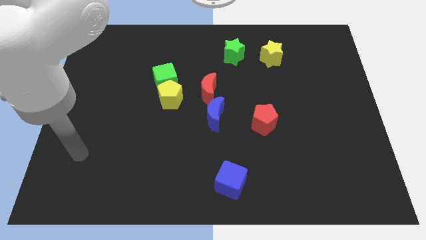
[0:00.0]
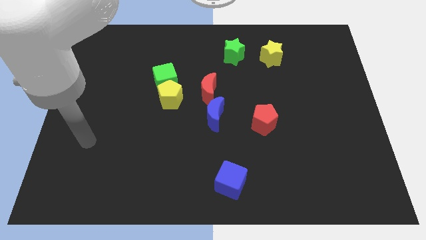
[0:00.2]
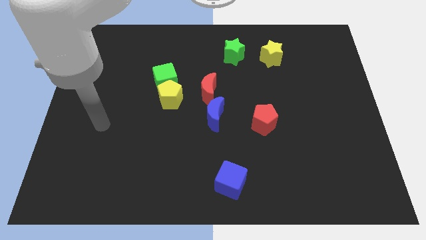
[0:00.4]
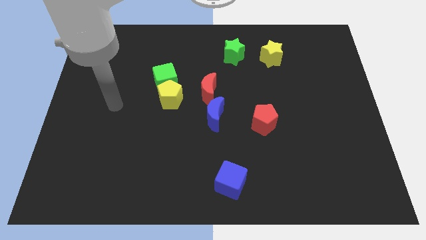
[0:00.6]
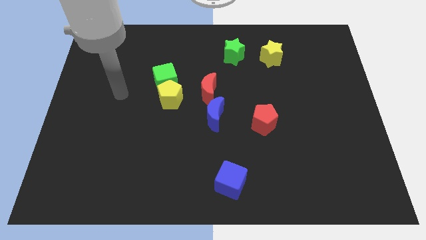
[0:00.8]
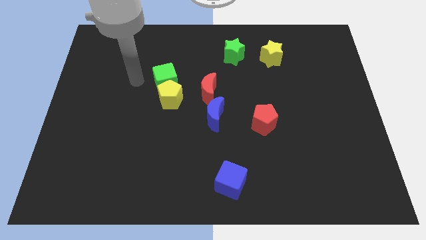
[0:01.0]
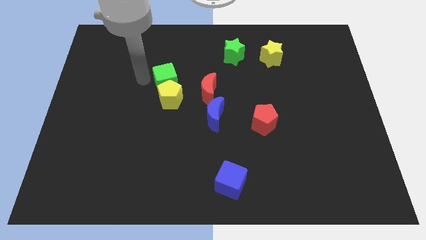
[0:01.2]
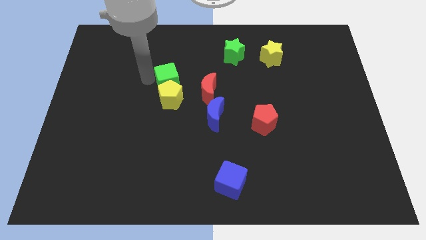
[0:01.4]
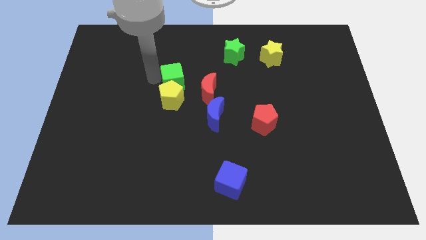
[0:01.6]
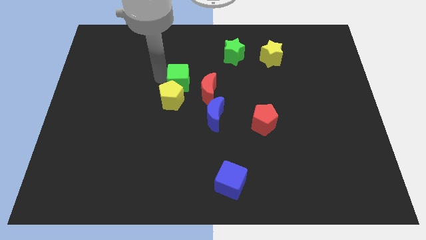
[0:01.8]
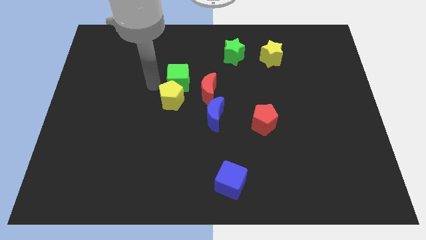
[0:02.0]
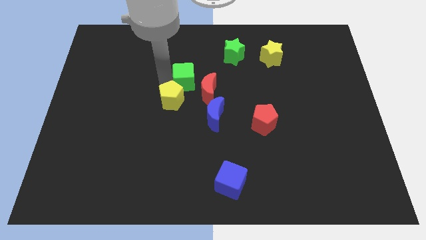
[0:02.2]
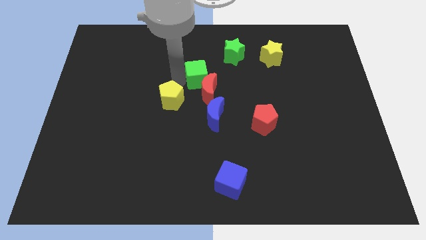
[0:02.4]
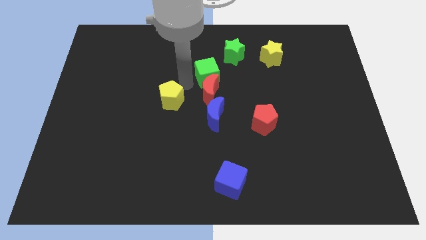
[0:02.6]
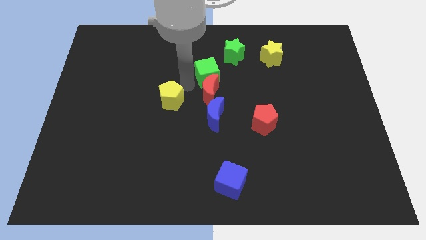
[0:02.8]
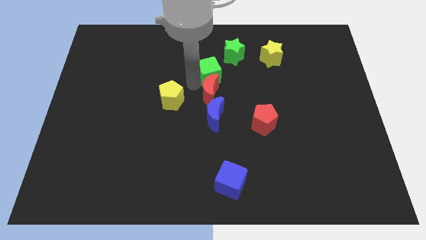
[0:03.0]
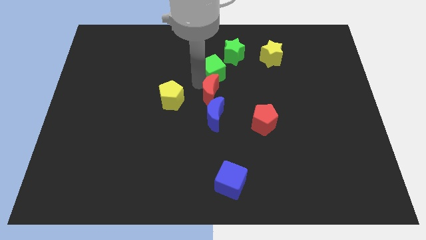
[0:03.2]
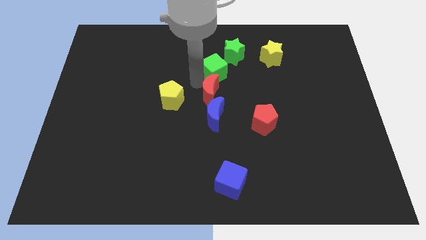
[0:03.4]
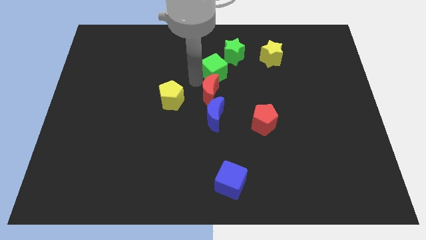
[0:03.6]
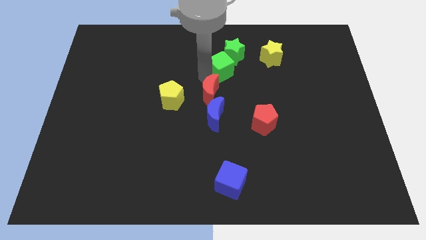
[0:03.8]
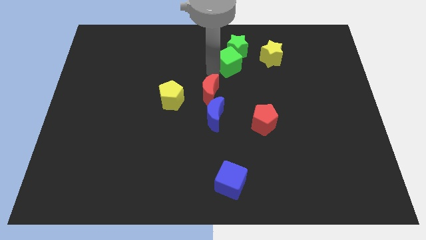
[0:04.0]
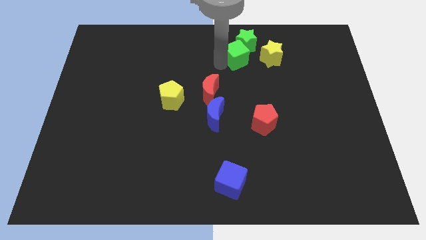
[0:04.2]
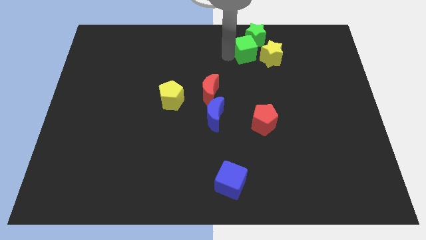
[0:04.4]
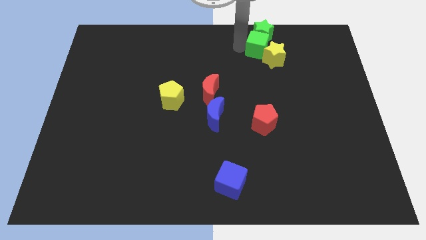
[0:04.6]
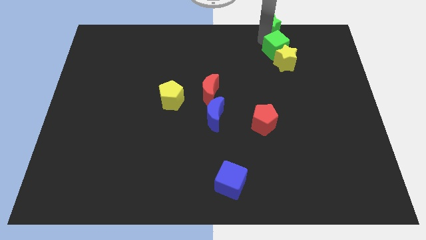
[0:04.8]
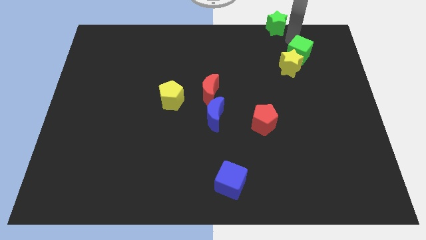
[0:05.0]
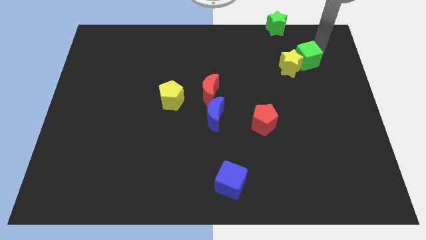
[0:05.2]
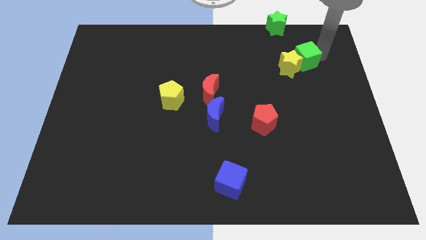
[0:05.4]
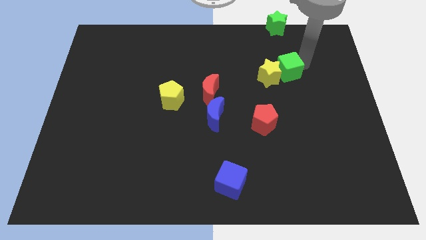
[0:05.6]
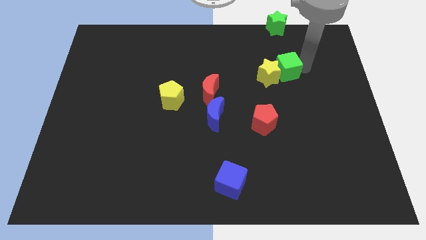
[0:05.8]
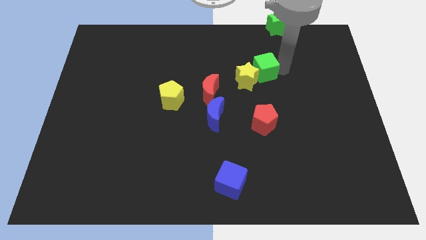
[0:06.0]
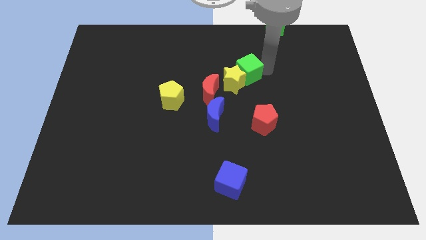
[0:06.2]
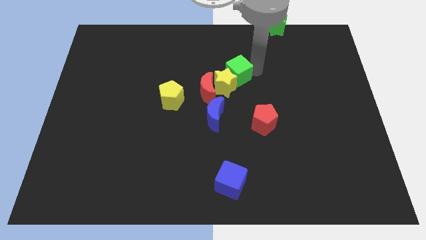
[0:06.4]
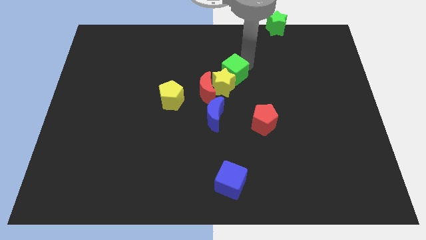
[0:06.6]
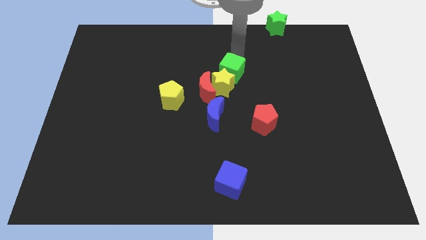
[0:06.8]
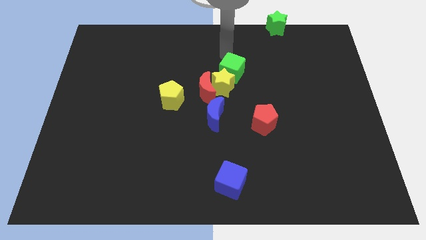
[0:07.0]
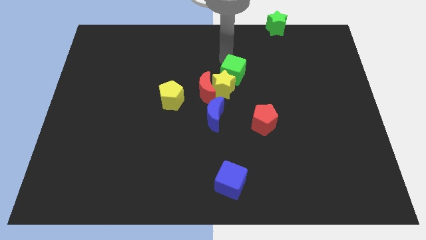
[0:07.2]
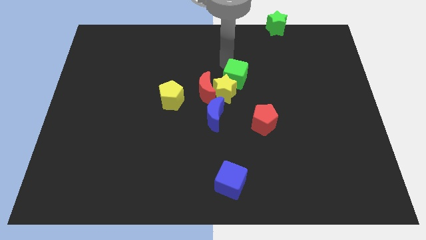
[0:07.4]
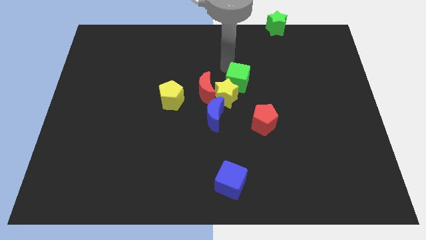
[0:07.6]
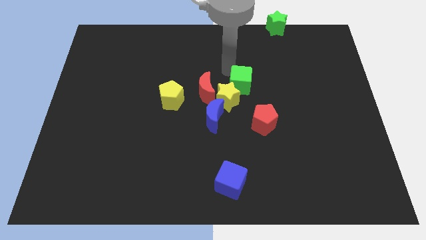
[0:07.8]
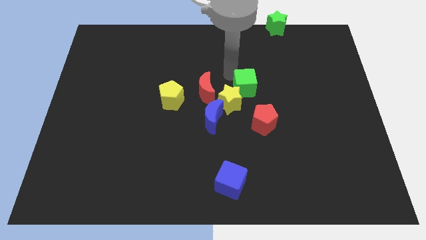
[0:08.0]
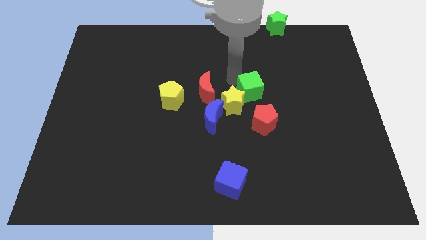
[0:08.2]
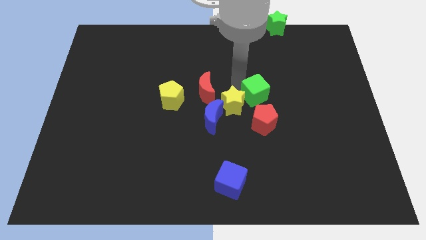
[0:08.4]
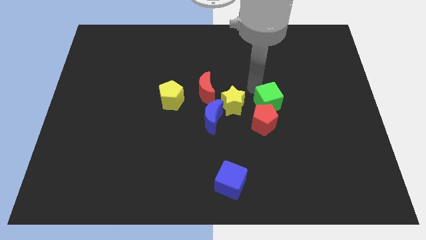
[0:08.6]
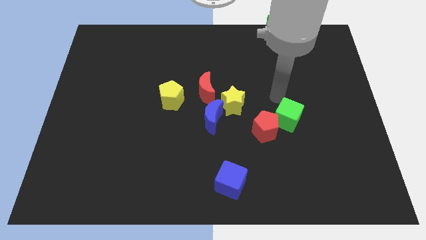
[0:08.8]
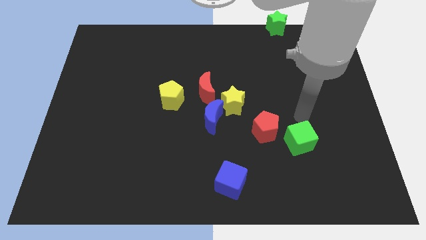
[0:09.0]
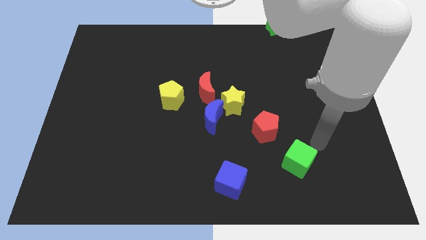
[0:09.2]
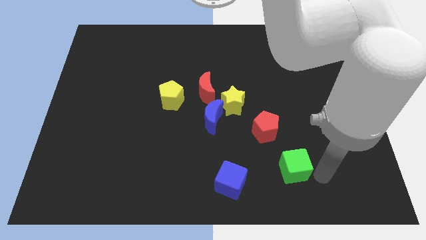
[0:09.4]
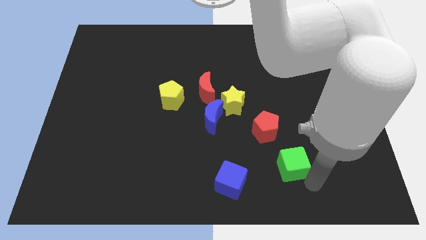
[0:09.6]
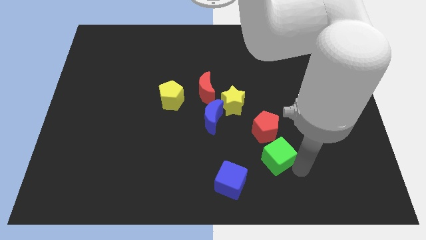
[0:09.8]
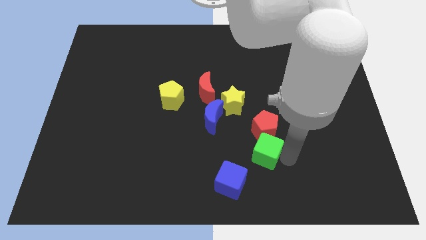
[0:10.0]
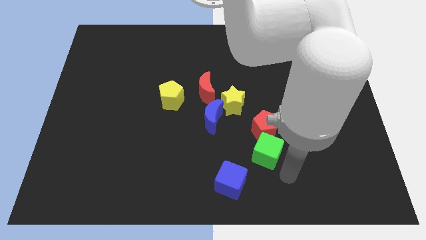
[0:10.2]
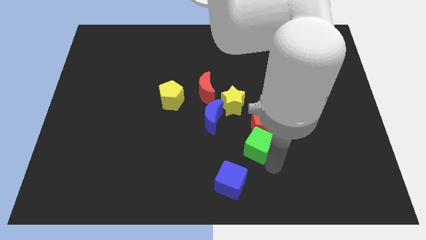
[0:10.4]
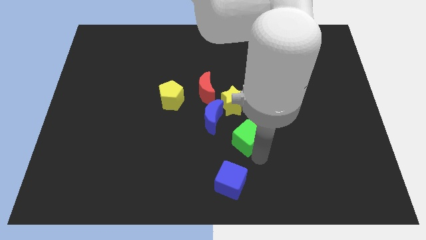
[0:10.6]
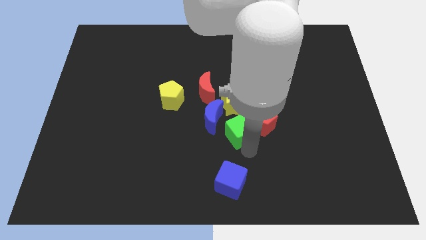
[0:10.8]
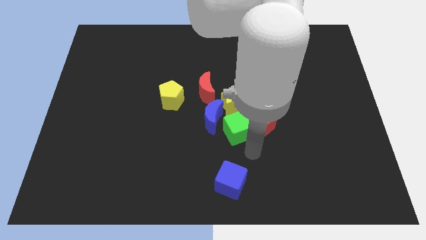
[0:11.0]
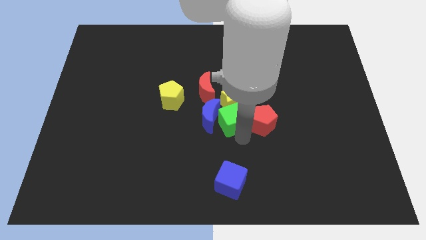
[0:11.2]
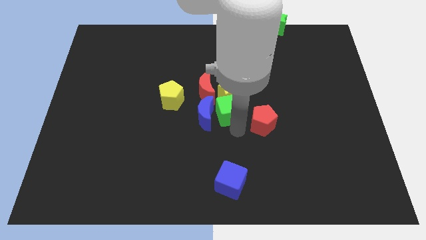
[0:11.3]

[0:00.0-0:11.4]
put the green cube to the right side of the yellow pentagon

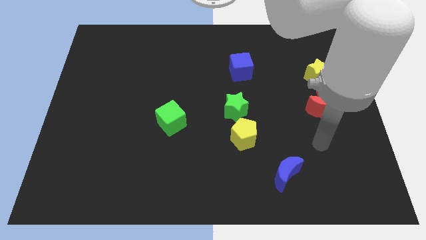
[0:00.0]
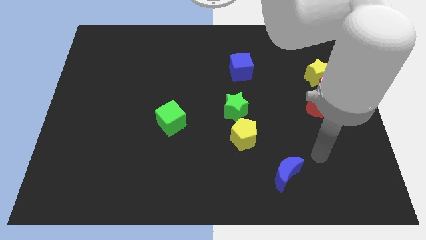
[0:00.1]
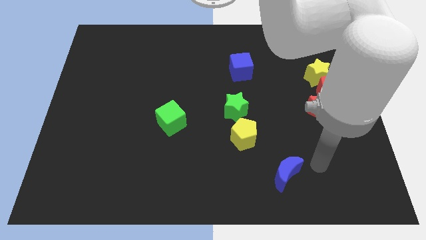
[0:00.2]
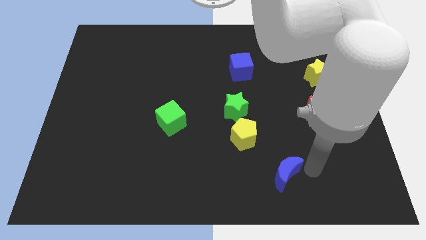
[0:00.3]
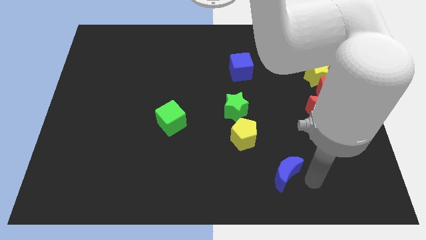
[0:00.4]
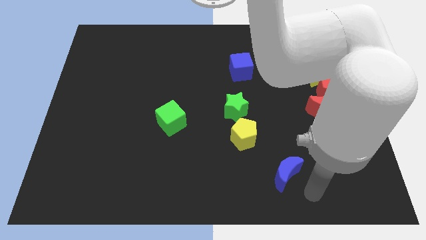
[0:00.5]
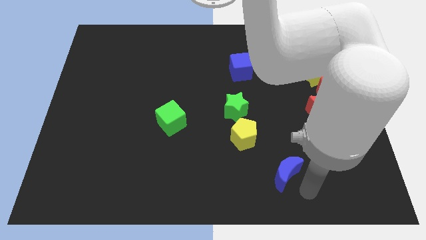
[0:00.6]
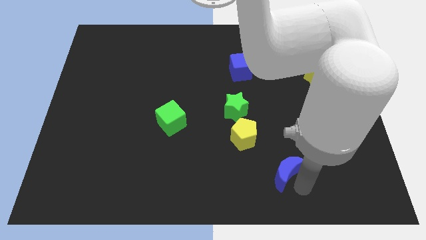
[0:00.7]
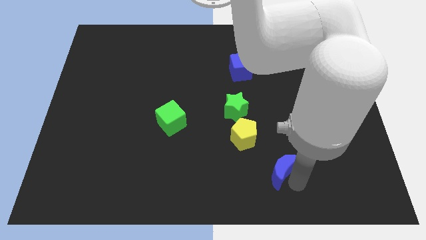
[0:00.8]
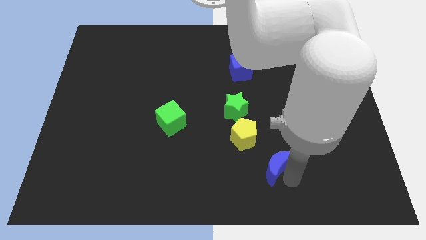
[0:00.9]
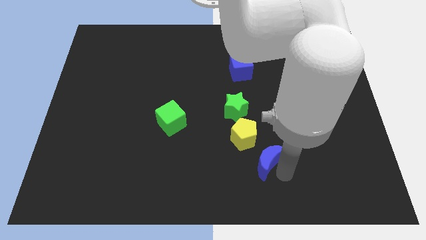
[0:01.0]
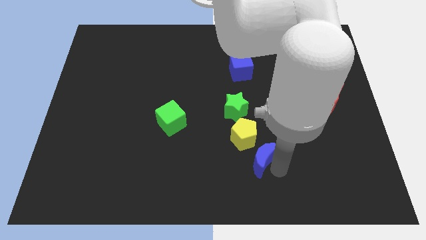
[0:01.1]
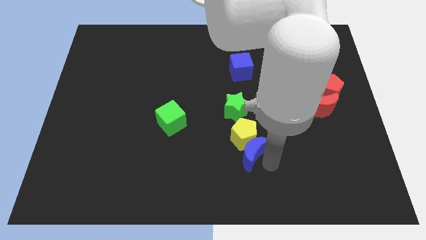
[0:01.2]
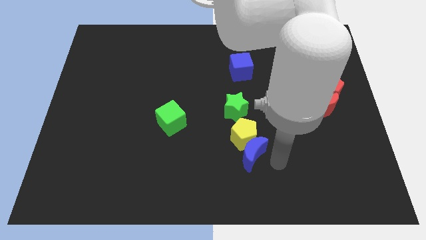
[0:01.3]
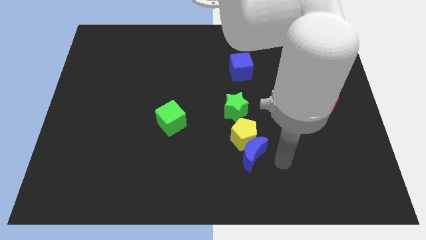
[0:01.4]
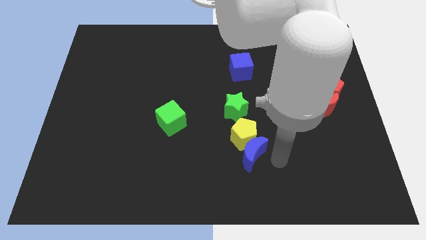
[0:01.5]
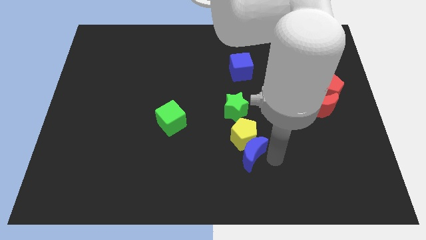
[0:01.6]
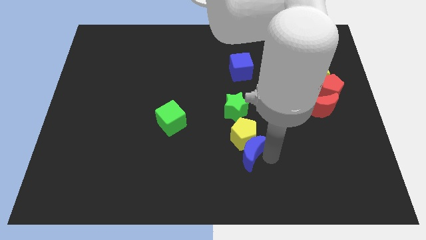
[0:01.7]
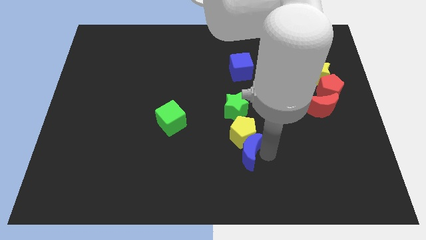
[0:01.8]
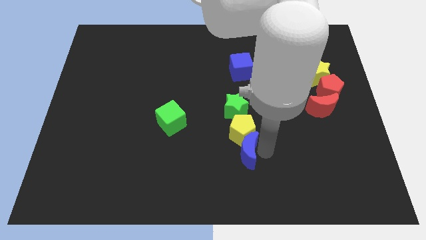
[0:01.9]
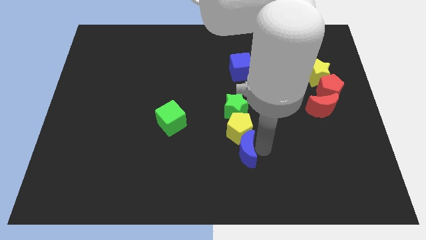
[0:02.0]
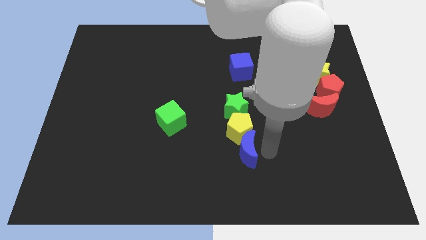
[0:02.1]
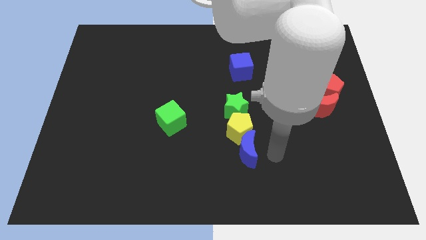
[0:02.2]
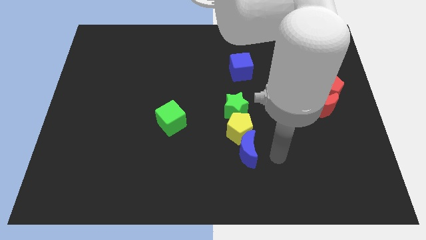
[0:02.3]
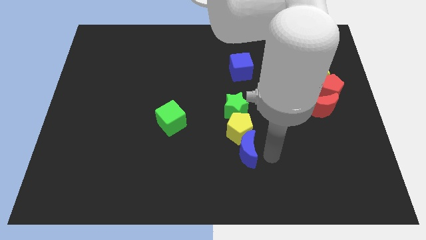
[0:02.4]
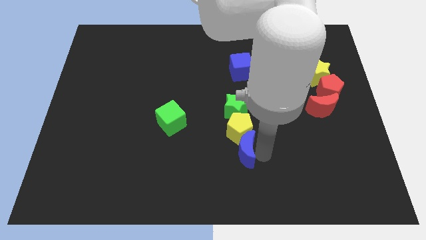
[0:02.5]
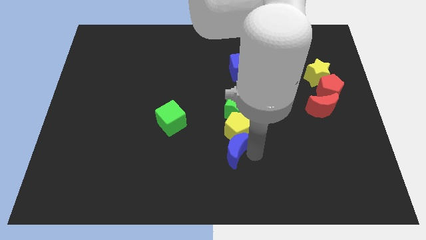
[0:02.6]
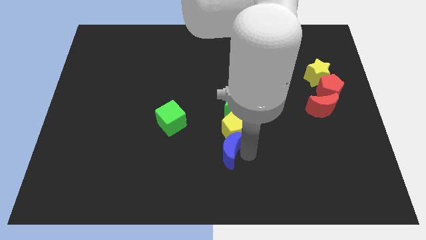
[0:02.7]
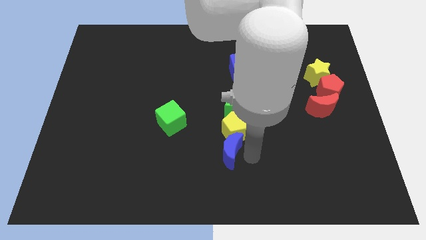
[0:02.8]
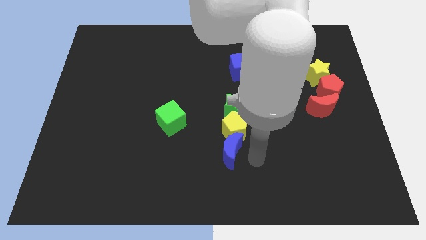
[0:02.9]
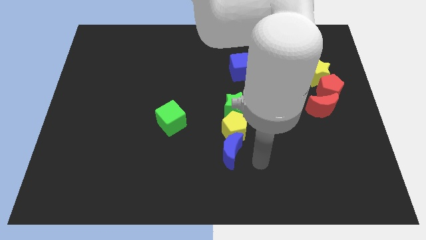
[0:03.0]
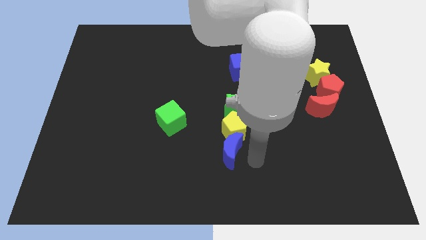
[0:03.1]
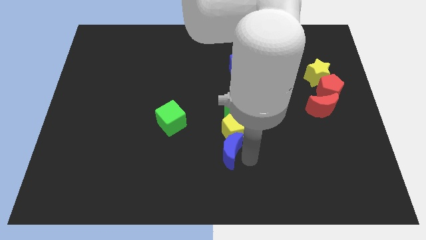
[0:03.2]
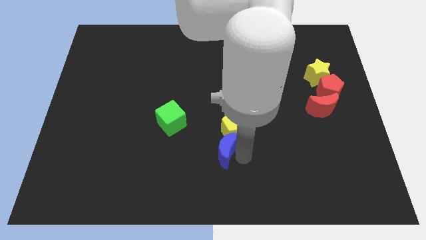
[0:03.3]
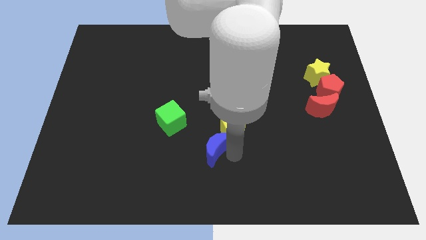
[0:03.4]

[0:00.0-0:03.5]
put the blue moon diagonally down and to the right of the green cube
